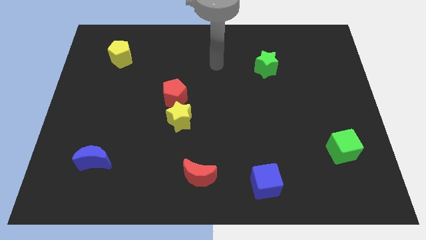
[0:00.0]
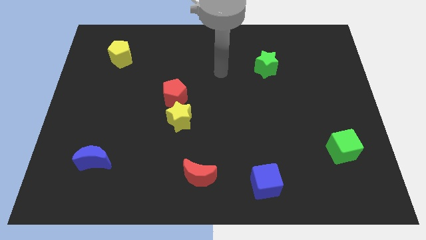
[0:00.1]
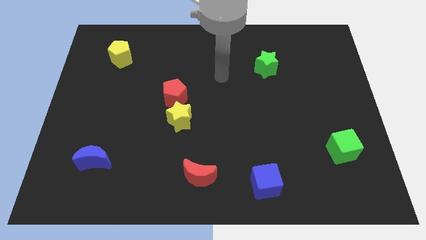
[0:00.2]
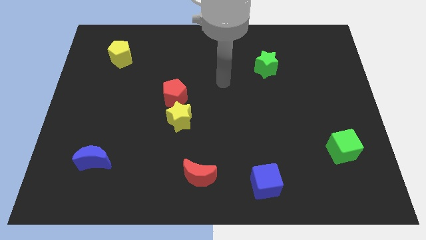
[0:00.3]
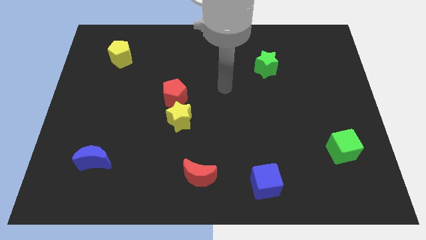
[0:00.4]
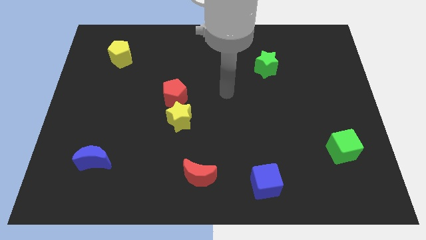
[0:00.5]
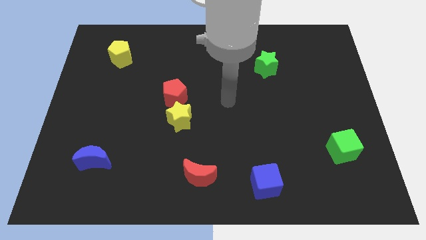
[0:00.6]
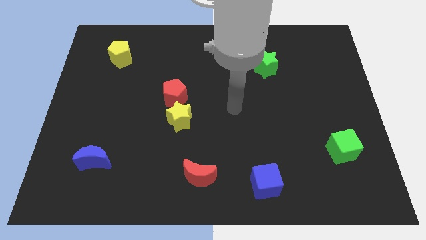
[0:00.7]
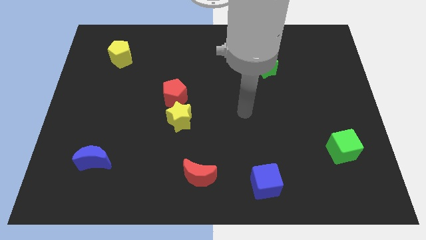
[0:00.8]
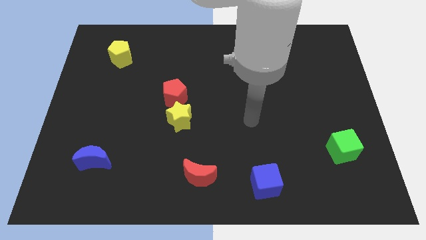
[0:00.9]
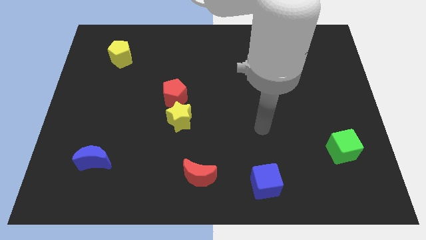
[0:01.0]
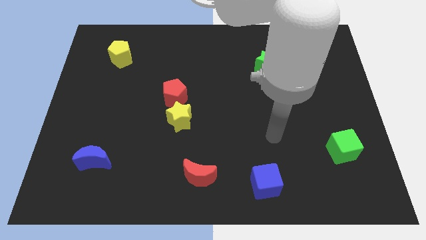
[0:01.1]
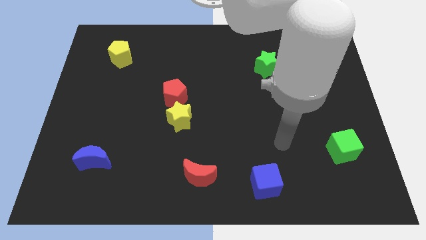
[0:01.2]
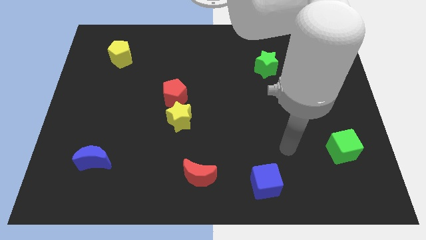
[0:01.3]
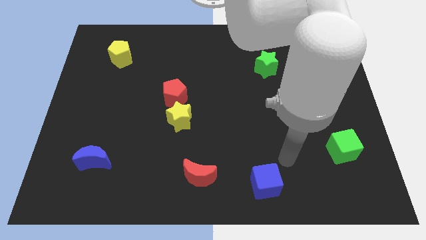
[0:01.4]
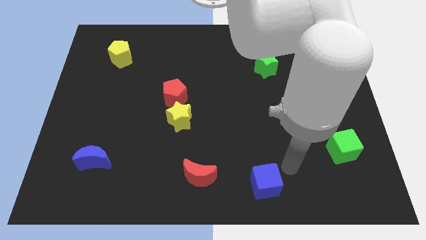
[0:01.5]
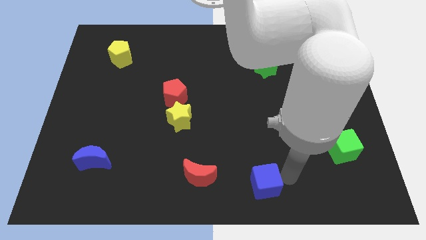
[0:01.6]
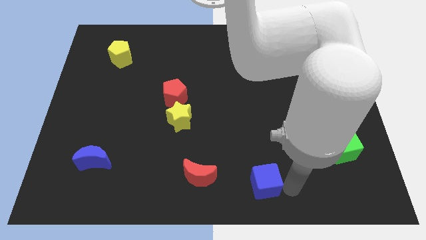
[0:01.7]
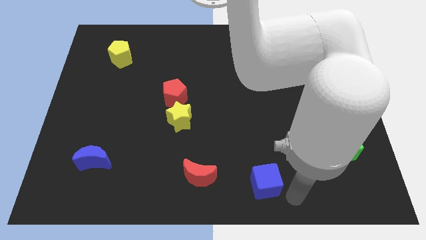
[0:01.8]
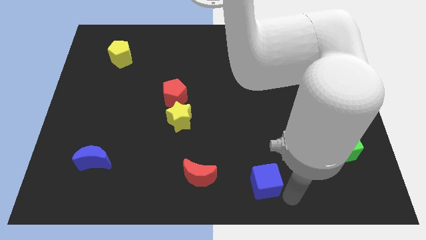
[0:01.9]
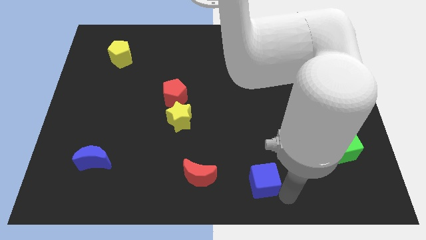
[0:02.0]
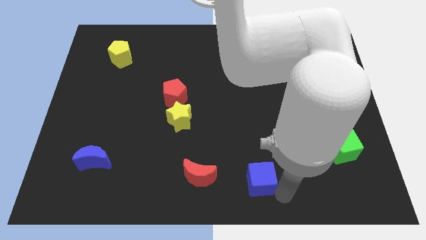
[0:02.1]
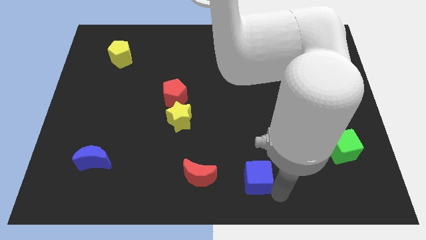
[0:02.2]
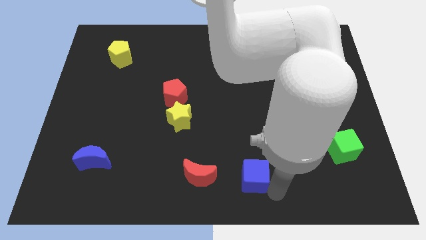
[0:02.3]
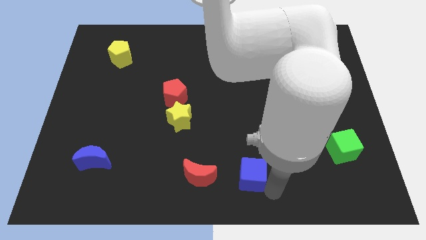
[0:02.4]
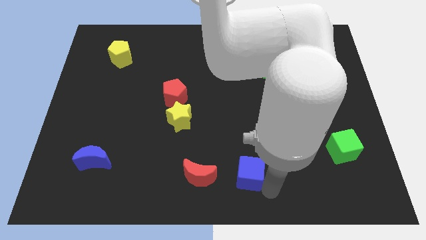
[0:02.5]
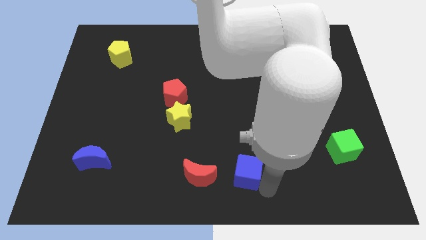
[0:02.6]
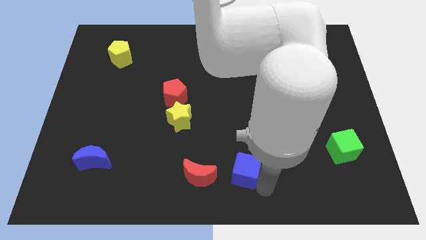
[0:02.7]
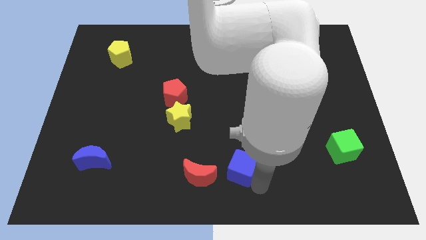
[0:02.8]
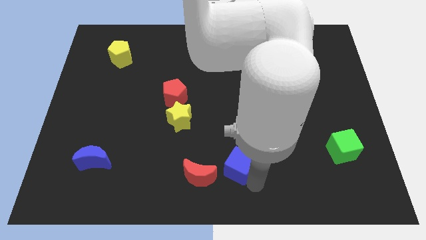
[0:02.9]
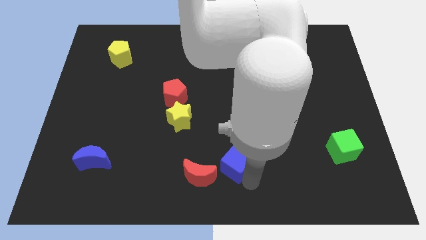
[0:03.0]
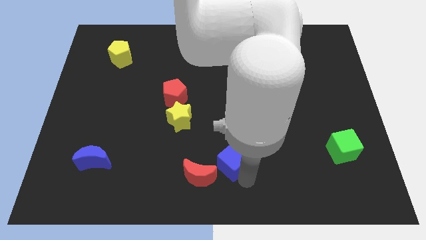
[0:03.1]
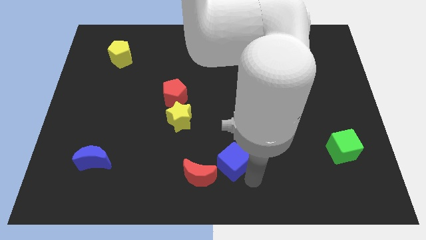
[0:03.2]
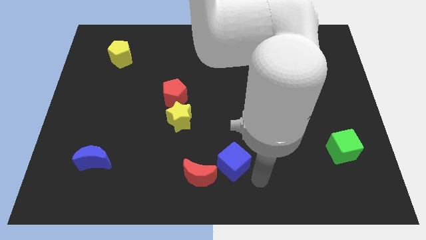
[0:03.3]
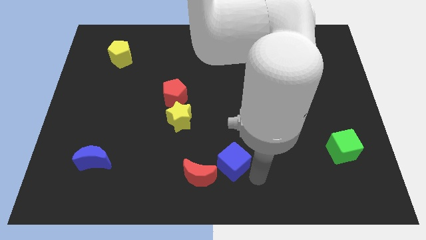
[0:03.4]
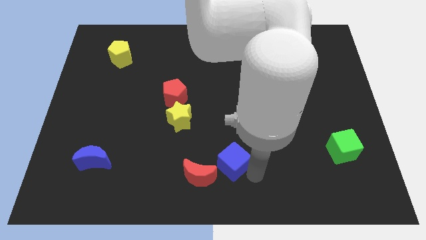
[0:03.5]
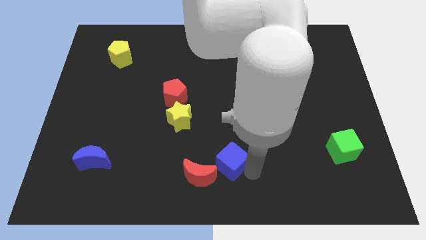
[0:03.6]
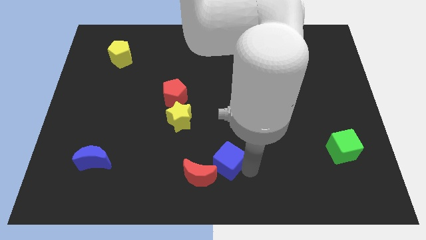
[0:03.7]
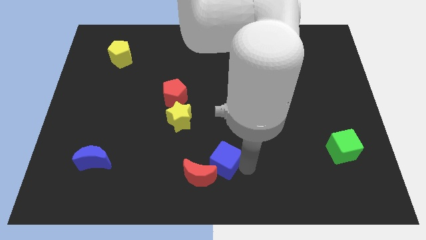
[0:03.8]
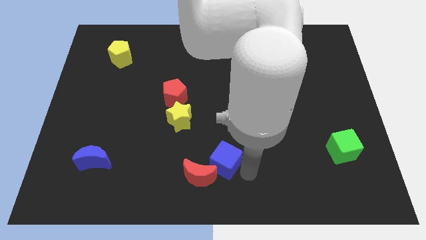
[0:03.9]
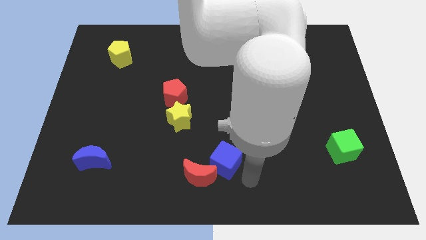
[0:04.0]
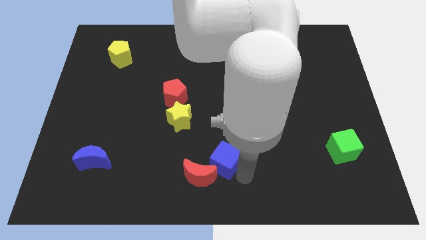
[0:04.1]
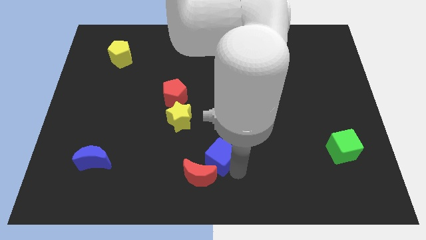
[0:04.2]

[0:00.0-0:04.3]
slide the blue cube to the top side of the red moon

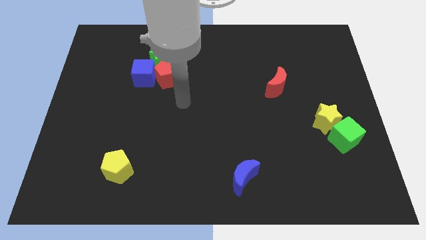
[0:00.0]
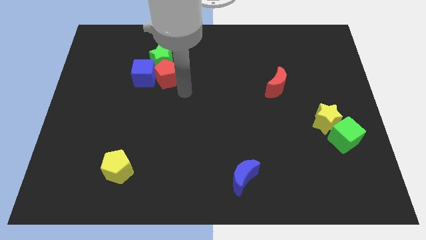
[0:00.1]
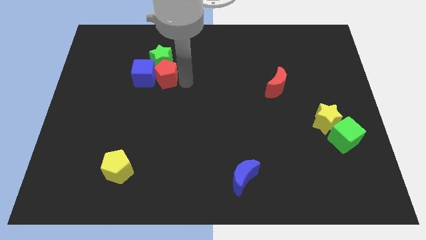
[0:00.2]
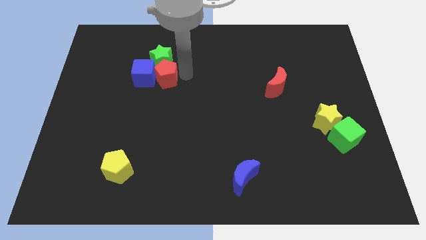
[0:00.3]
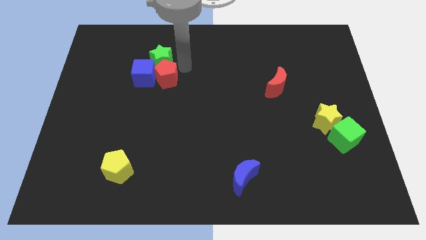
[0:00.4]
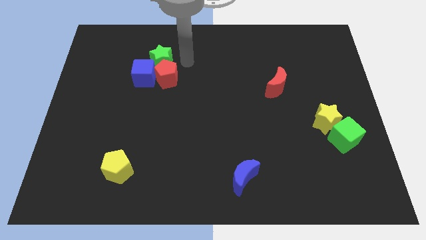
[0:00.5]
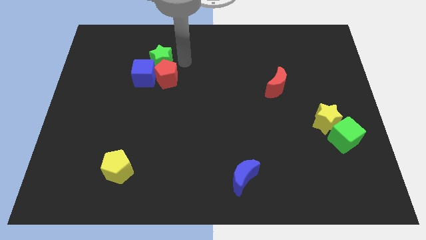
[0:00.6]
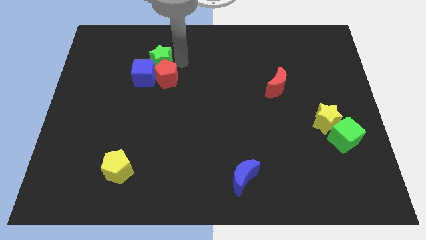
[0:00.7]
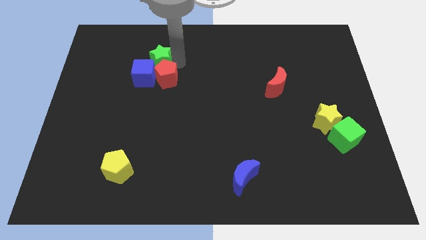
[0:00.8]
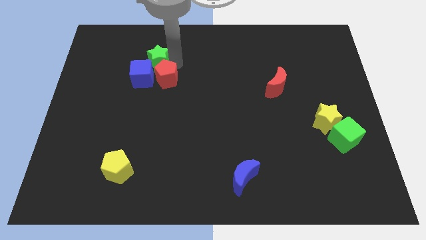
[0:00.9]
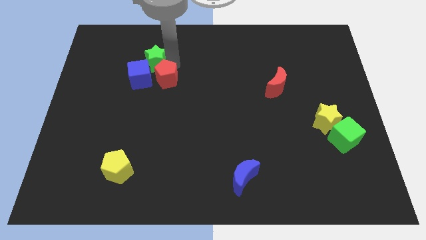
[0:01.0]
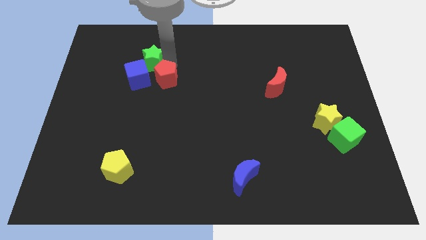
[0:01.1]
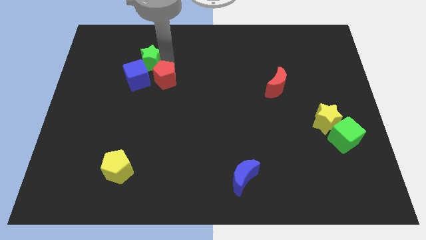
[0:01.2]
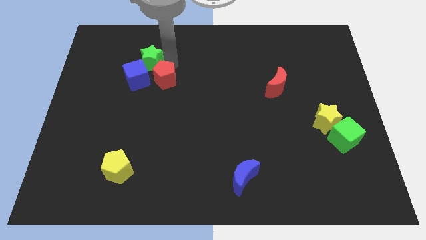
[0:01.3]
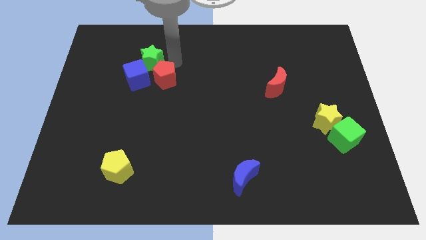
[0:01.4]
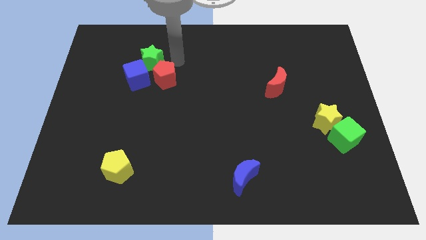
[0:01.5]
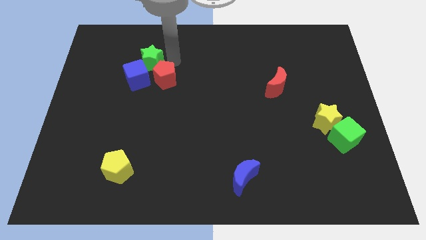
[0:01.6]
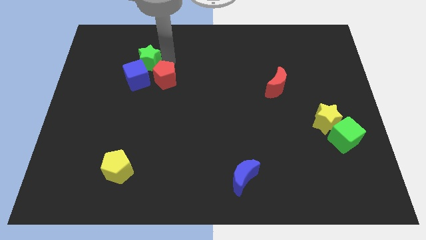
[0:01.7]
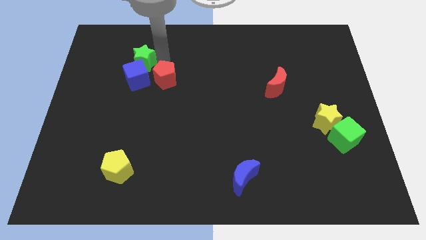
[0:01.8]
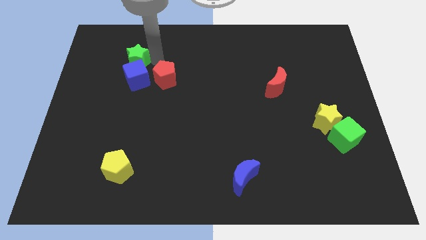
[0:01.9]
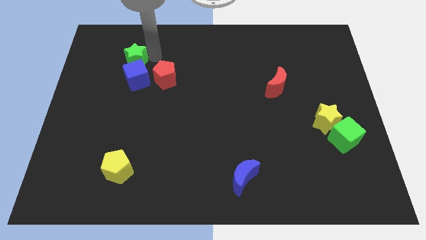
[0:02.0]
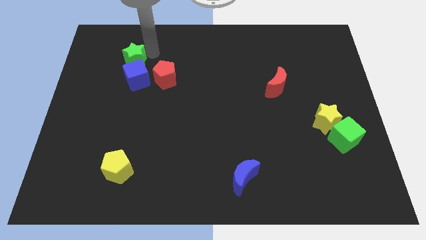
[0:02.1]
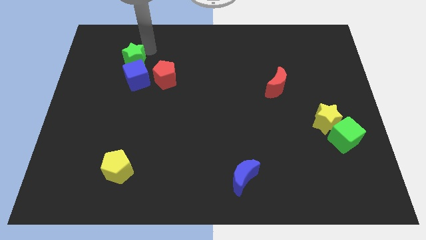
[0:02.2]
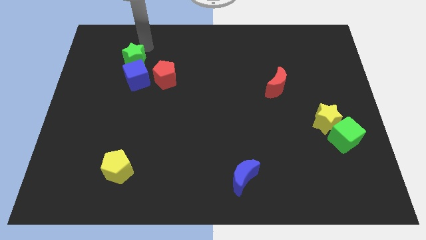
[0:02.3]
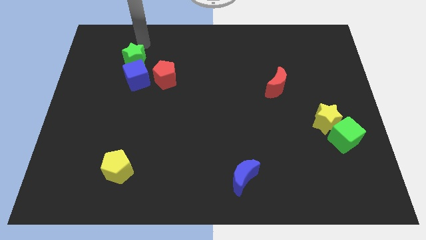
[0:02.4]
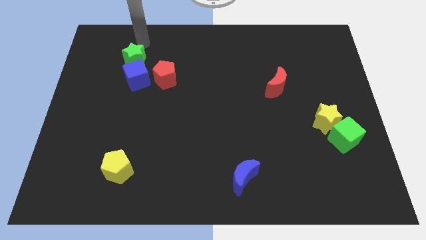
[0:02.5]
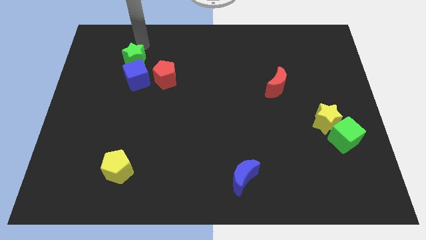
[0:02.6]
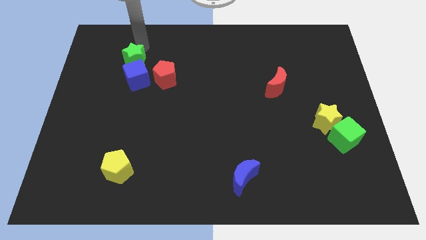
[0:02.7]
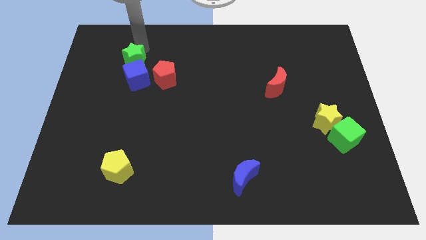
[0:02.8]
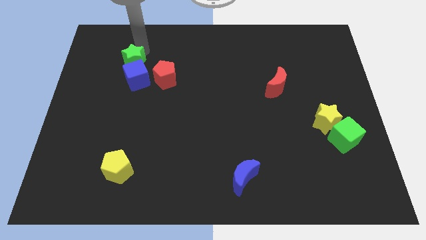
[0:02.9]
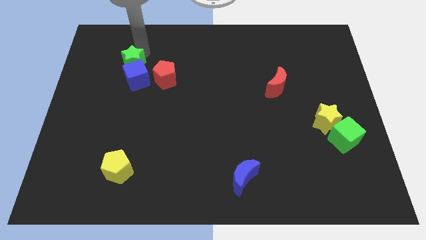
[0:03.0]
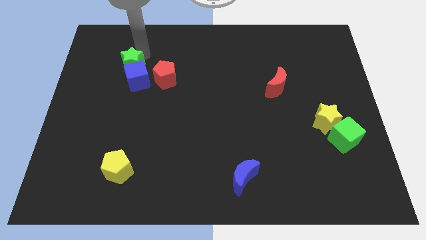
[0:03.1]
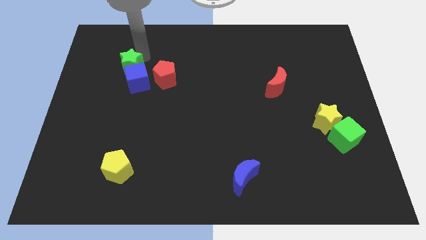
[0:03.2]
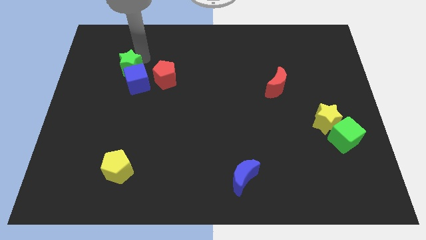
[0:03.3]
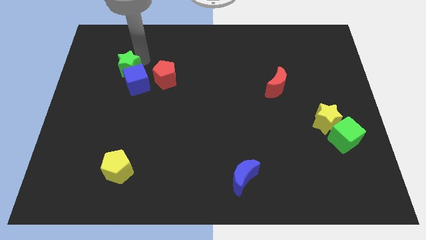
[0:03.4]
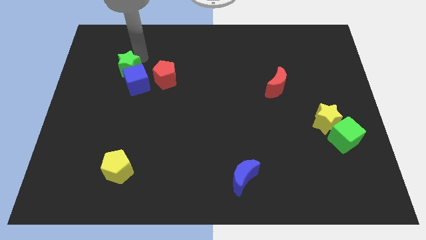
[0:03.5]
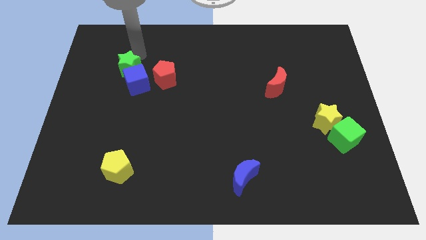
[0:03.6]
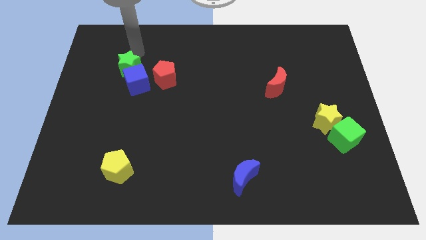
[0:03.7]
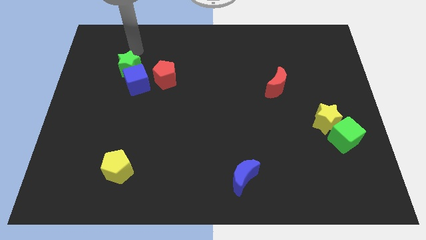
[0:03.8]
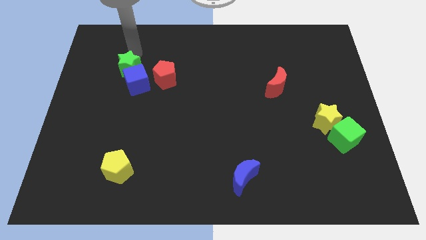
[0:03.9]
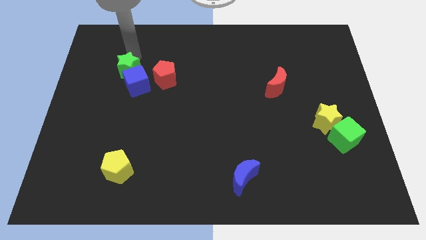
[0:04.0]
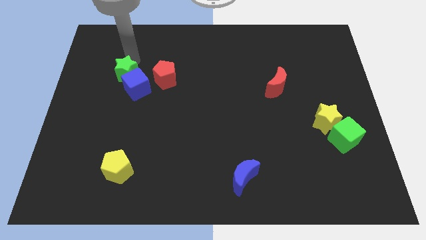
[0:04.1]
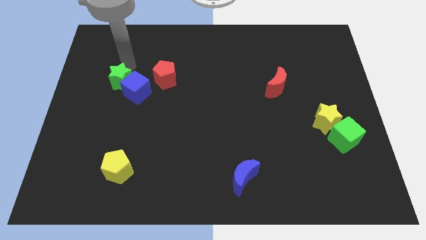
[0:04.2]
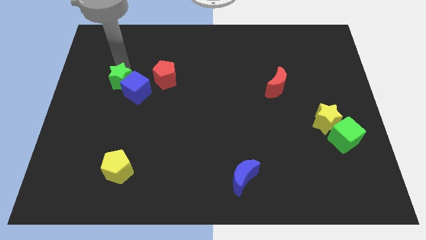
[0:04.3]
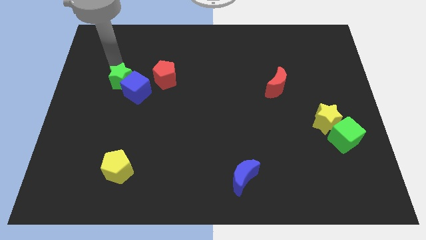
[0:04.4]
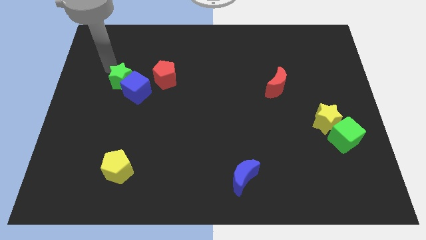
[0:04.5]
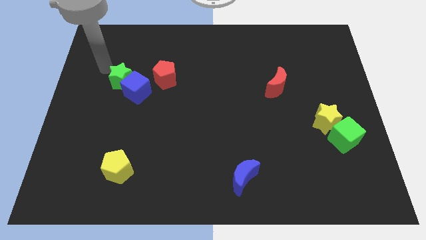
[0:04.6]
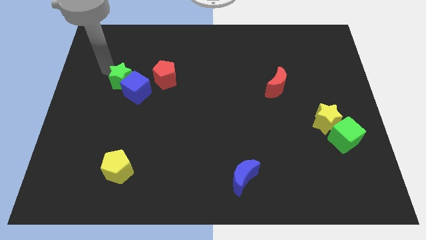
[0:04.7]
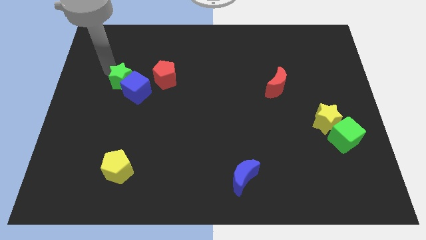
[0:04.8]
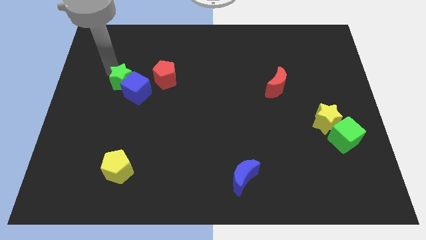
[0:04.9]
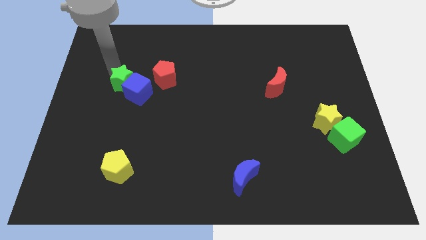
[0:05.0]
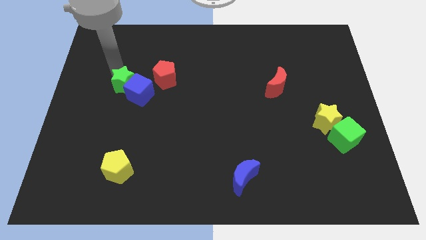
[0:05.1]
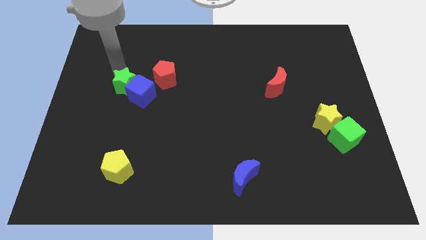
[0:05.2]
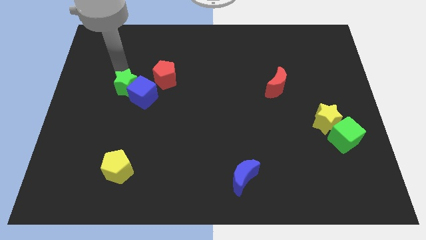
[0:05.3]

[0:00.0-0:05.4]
put the green star to the bottom left of the red pentagon
